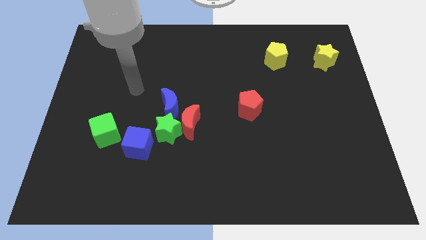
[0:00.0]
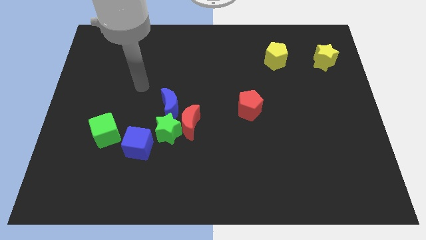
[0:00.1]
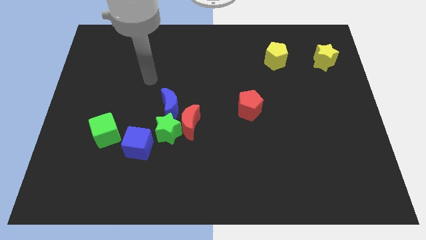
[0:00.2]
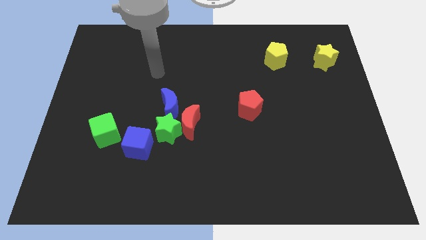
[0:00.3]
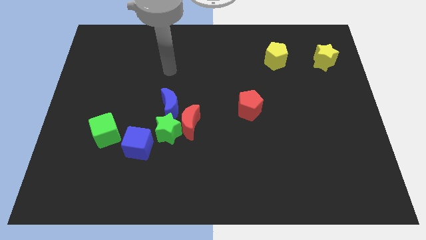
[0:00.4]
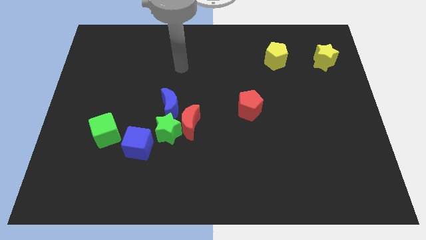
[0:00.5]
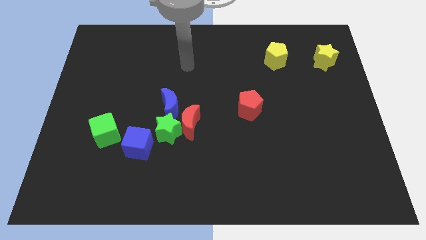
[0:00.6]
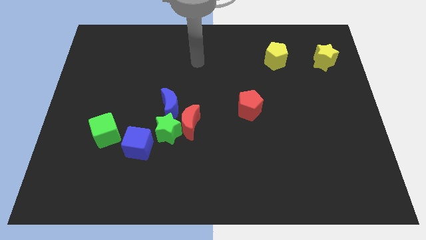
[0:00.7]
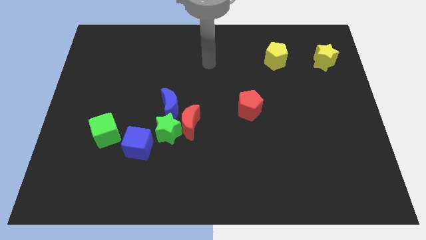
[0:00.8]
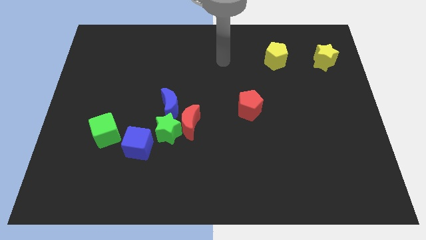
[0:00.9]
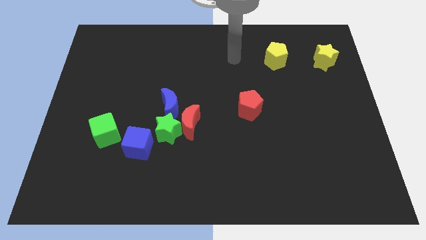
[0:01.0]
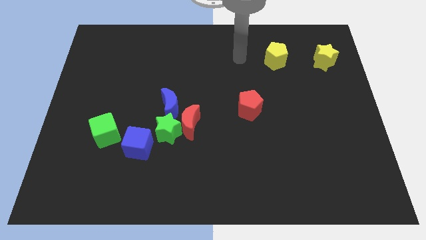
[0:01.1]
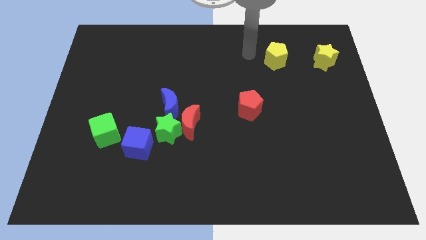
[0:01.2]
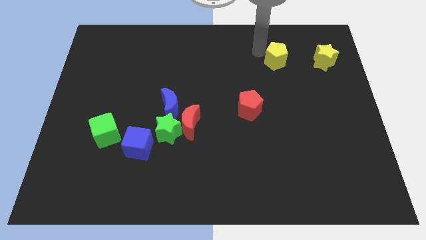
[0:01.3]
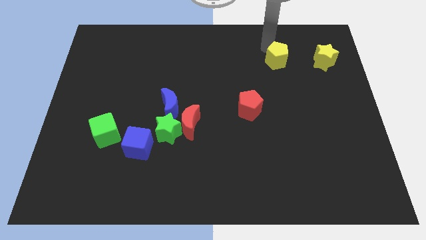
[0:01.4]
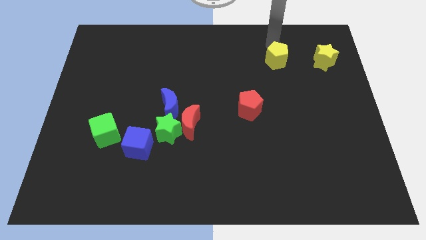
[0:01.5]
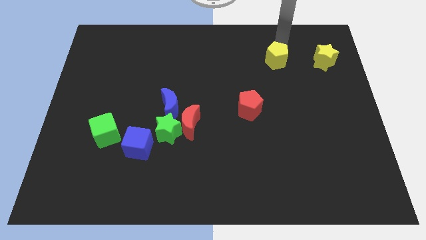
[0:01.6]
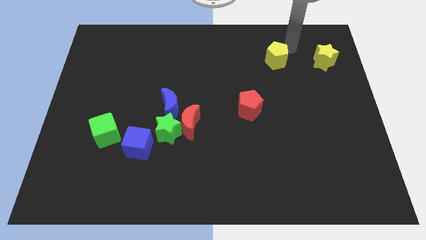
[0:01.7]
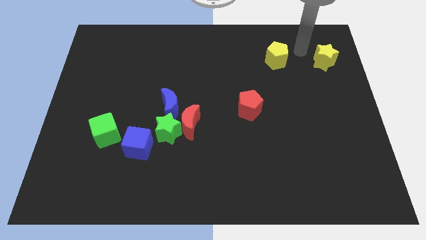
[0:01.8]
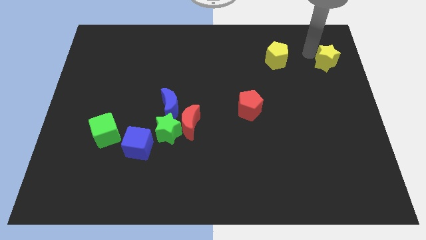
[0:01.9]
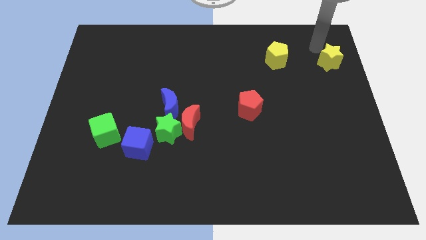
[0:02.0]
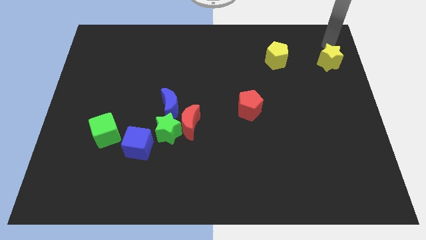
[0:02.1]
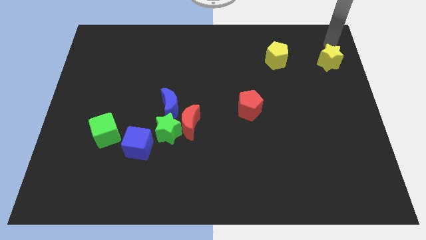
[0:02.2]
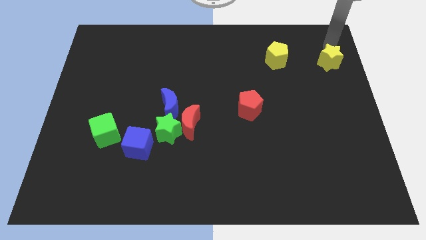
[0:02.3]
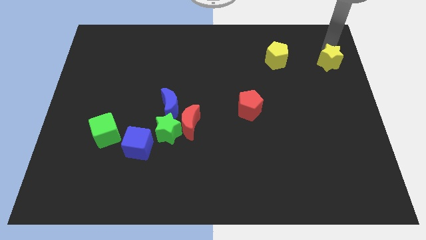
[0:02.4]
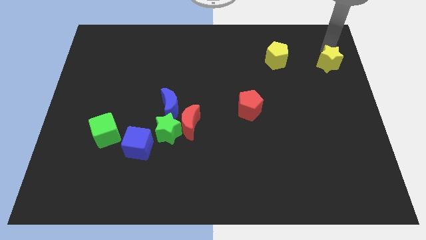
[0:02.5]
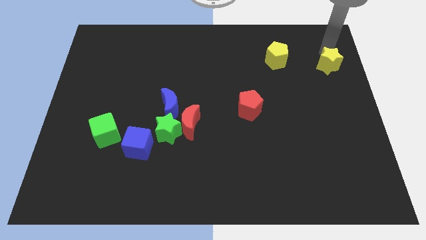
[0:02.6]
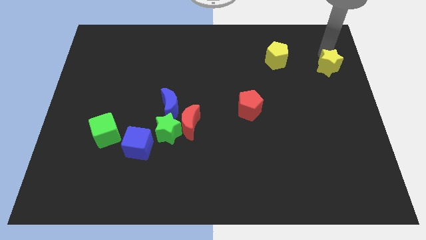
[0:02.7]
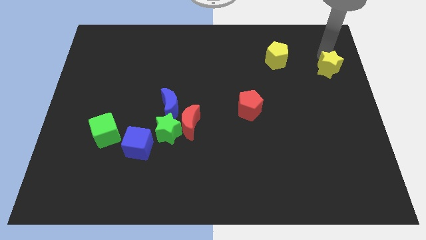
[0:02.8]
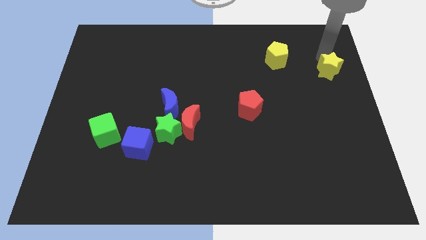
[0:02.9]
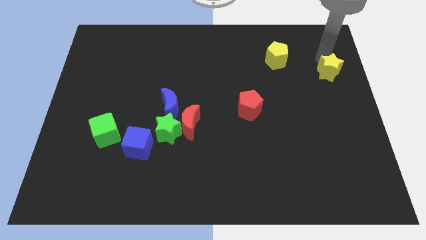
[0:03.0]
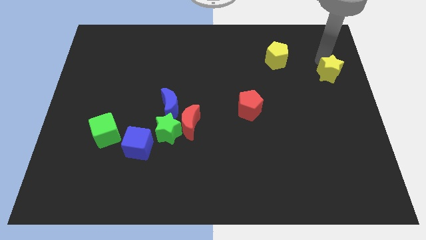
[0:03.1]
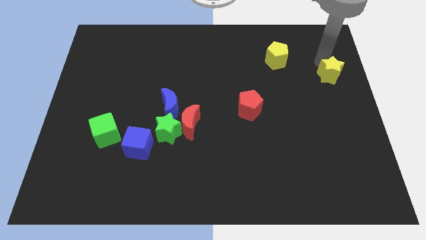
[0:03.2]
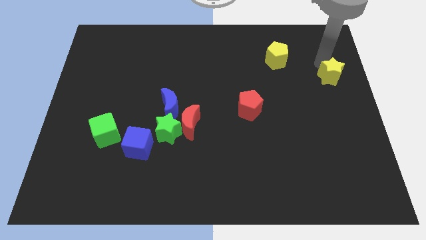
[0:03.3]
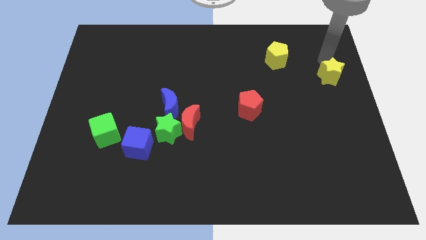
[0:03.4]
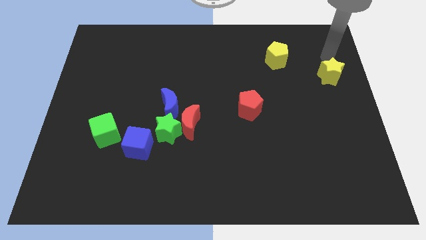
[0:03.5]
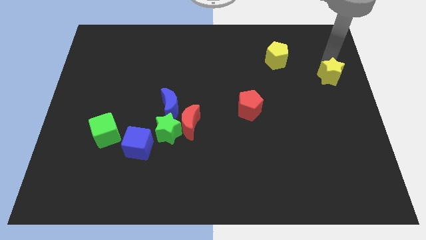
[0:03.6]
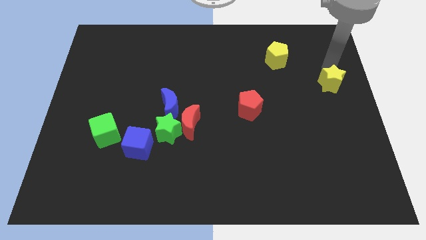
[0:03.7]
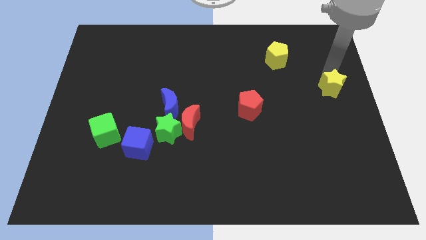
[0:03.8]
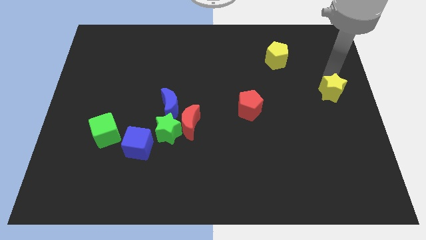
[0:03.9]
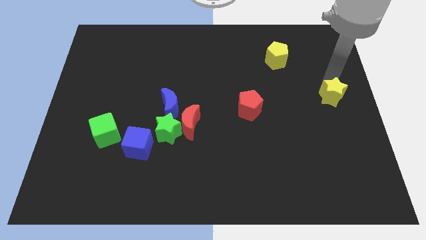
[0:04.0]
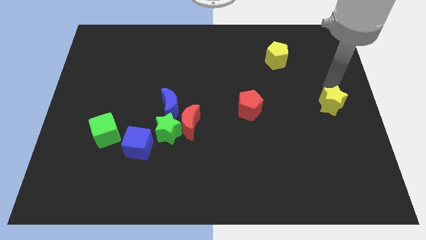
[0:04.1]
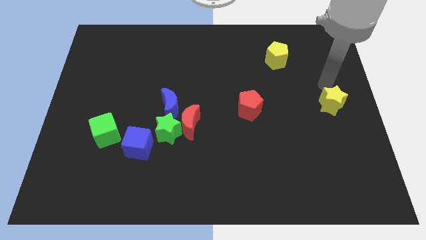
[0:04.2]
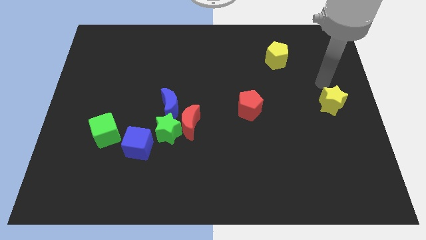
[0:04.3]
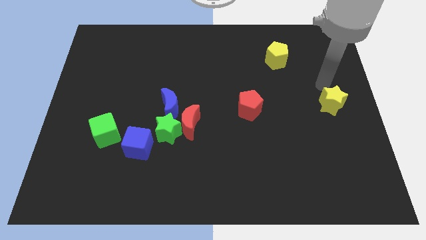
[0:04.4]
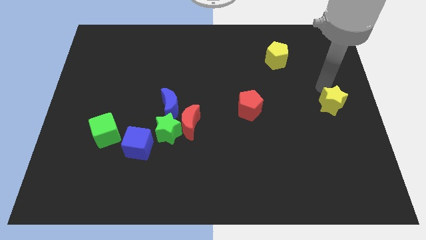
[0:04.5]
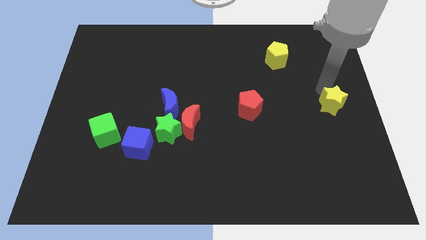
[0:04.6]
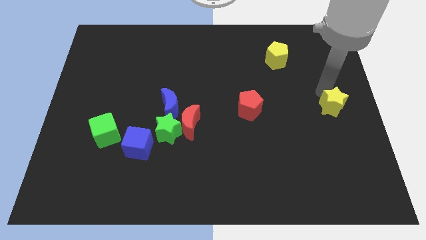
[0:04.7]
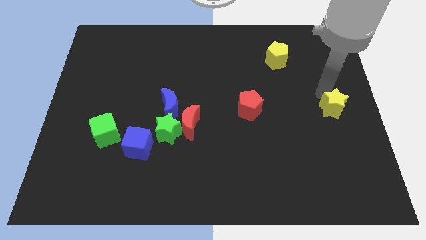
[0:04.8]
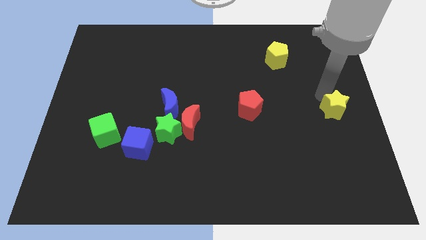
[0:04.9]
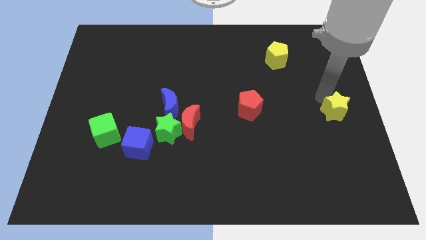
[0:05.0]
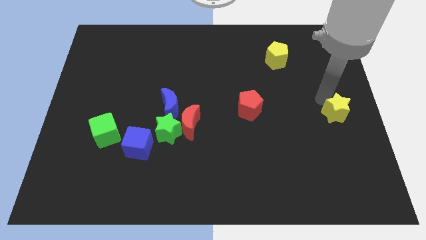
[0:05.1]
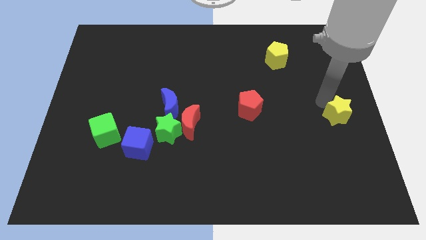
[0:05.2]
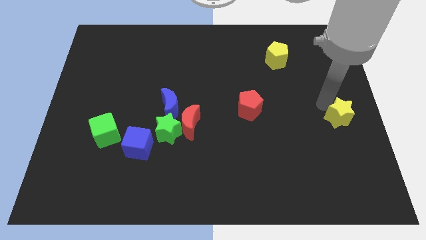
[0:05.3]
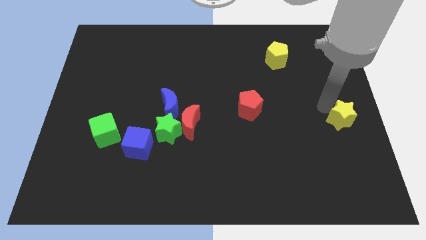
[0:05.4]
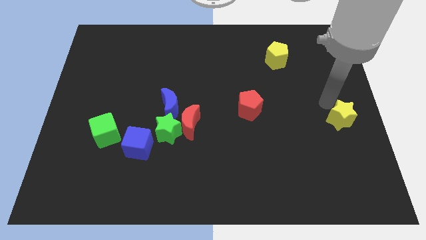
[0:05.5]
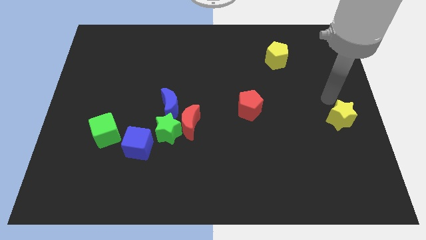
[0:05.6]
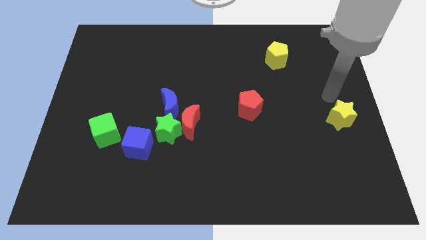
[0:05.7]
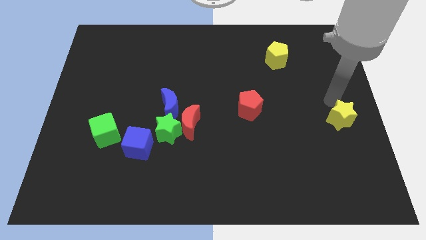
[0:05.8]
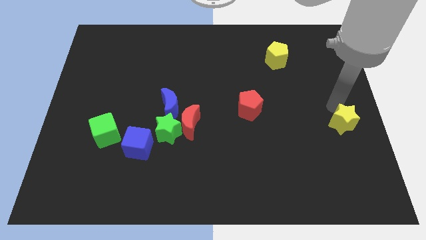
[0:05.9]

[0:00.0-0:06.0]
push the yellow star down

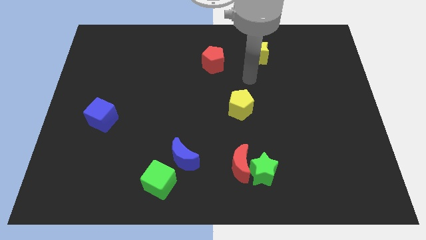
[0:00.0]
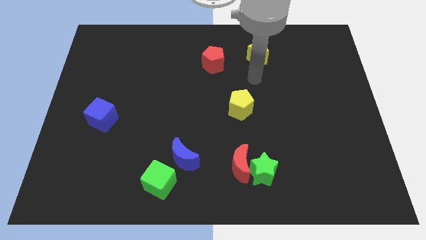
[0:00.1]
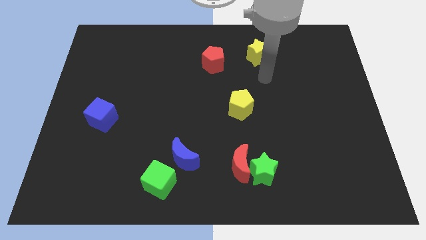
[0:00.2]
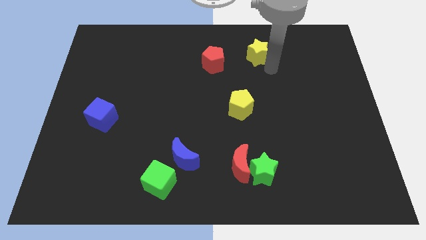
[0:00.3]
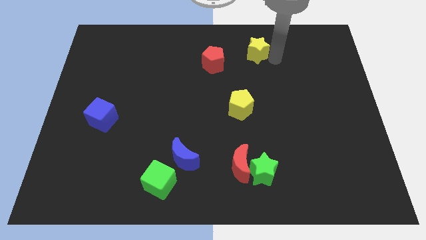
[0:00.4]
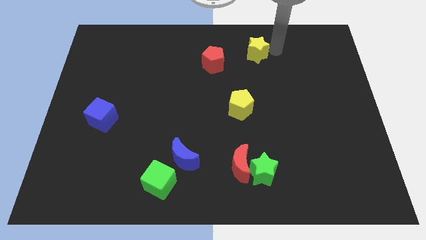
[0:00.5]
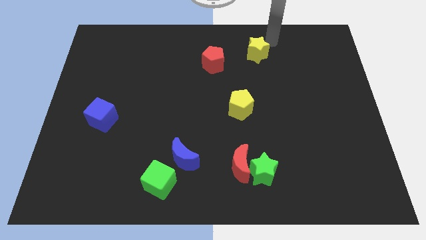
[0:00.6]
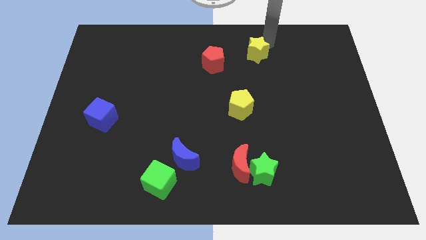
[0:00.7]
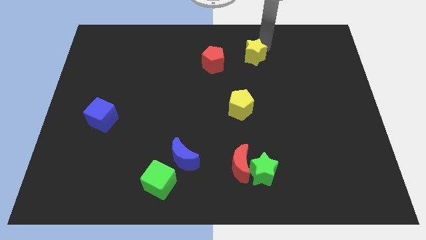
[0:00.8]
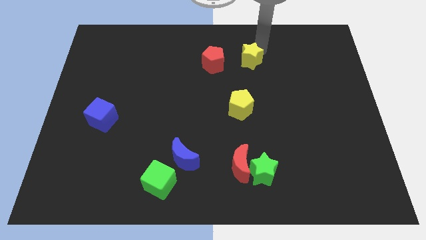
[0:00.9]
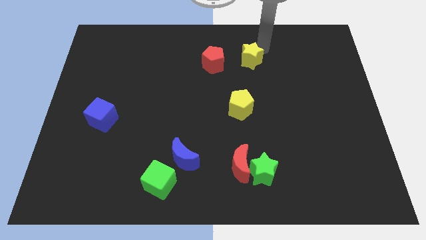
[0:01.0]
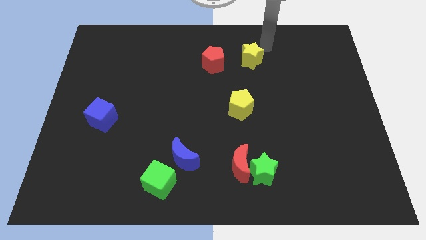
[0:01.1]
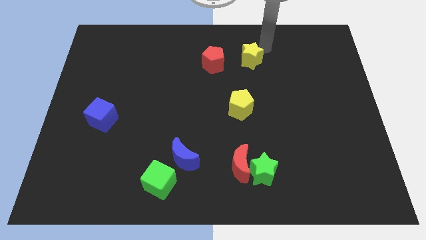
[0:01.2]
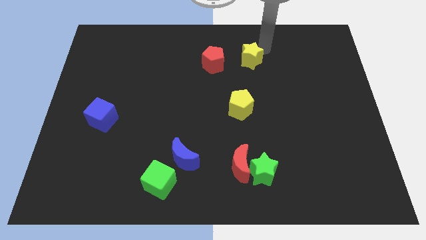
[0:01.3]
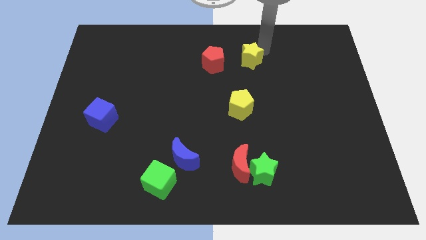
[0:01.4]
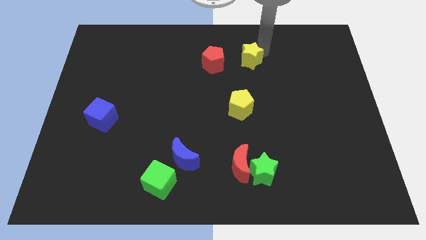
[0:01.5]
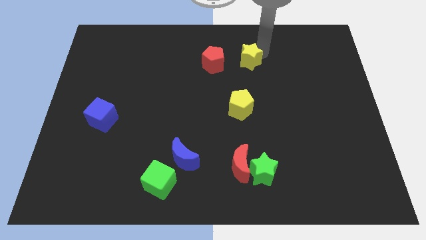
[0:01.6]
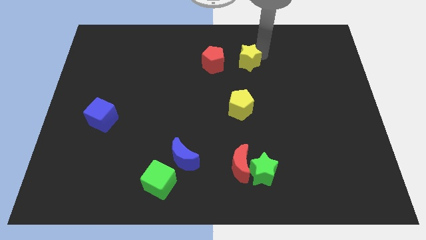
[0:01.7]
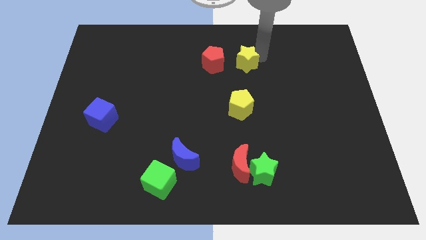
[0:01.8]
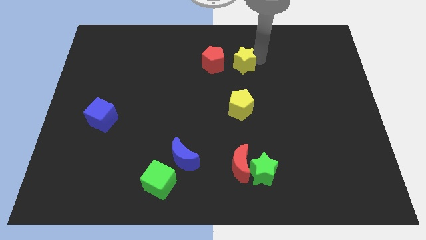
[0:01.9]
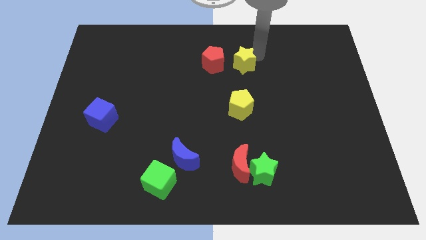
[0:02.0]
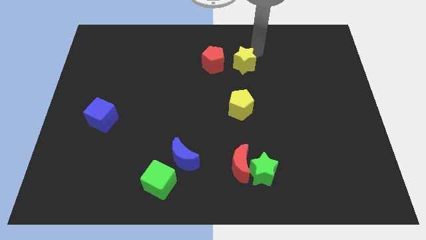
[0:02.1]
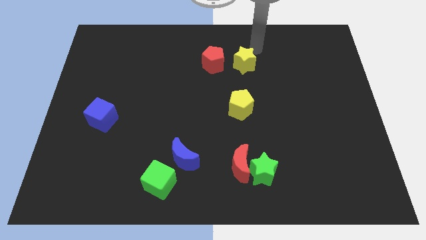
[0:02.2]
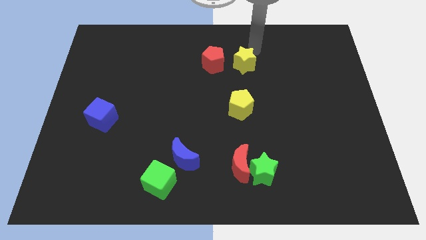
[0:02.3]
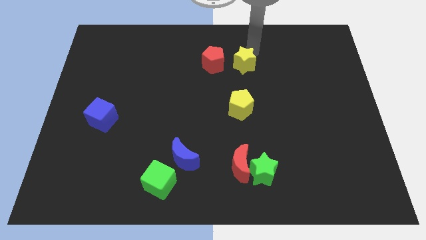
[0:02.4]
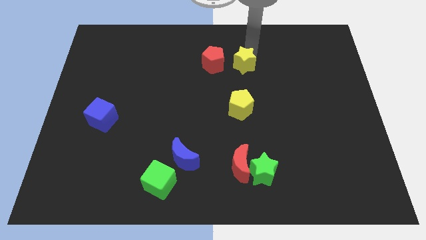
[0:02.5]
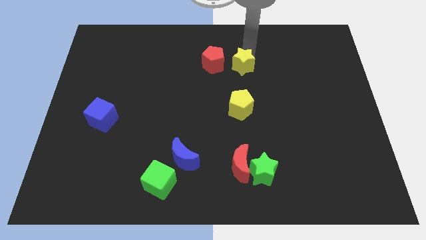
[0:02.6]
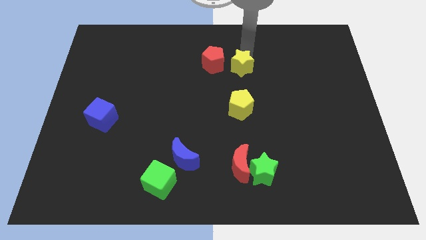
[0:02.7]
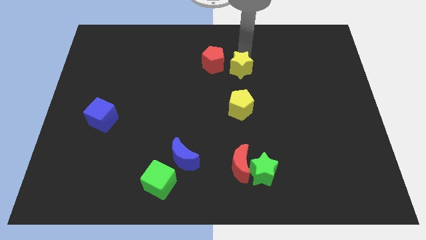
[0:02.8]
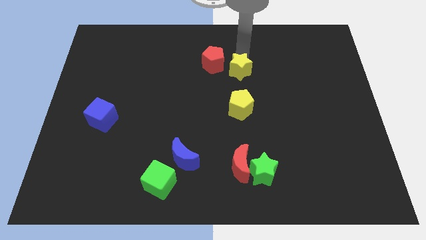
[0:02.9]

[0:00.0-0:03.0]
push the yellow star a little bit diagonally down and to the left
